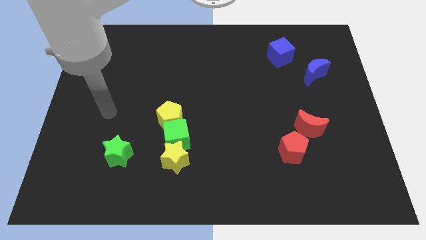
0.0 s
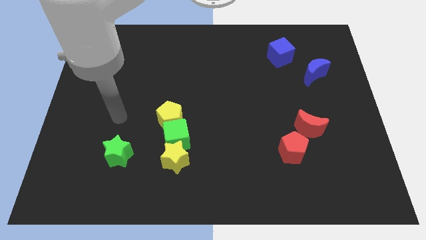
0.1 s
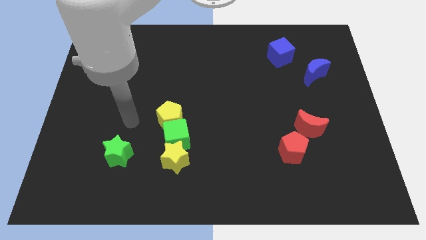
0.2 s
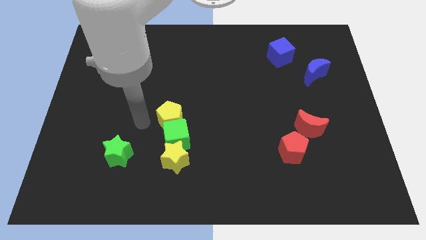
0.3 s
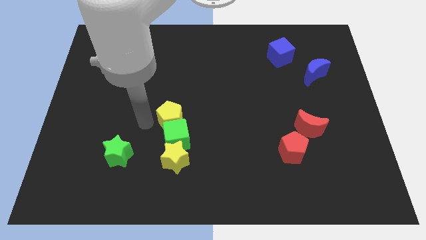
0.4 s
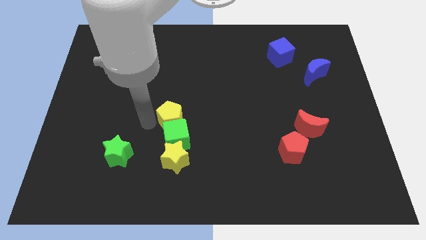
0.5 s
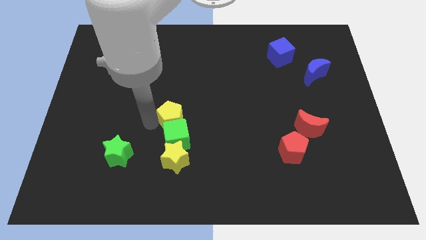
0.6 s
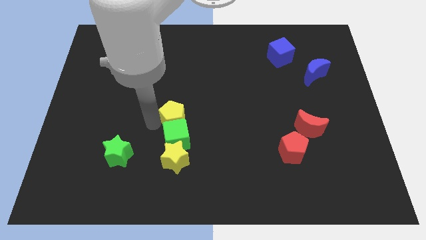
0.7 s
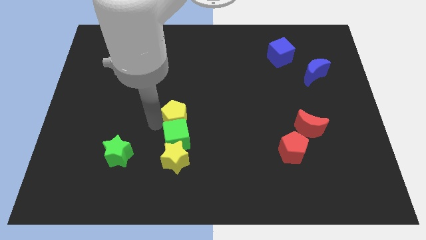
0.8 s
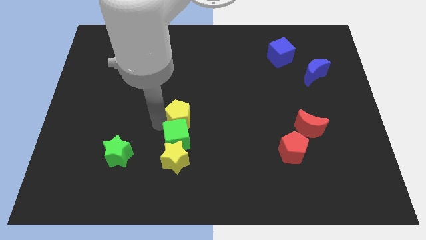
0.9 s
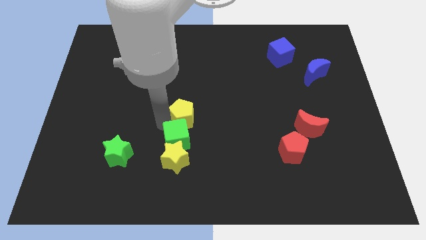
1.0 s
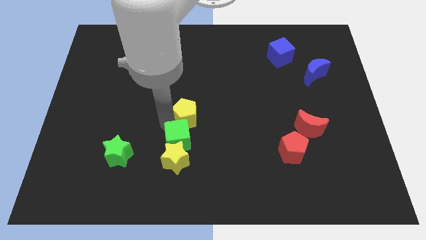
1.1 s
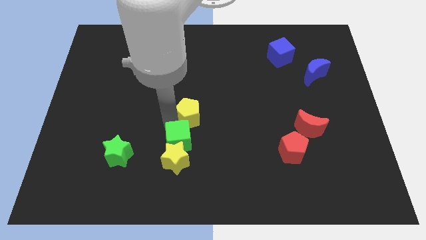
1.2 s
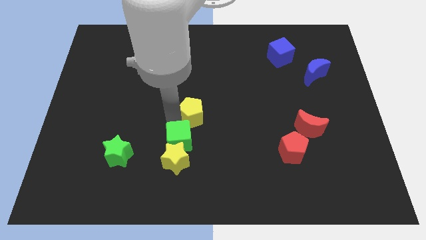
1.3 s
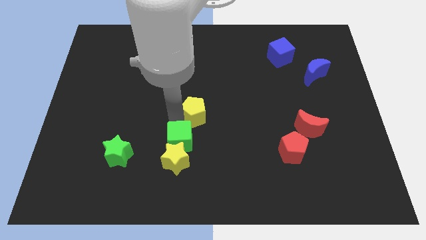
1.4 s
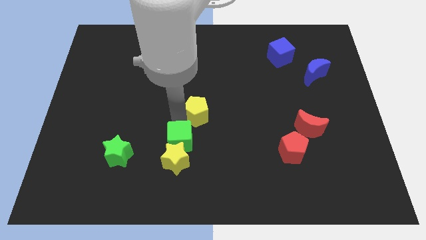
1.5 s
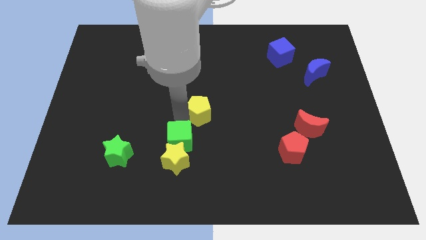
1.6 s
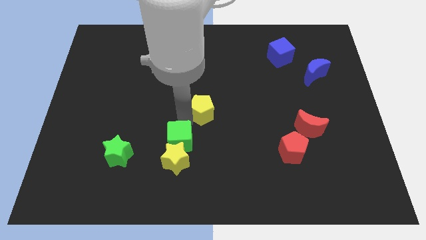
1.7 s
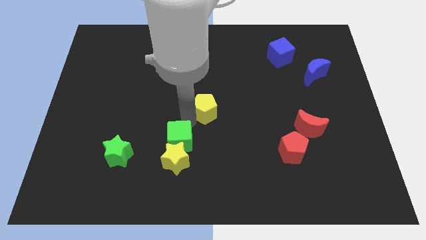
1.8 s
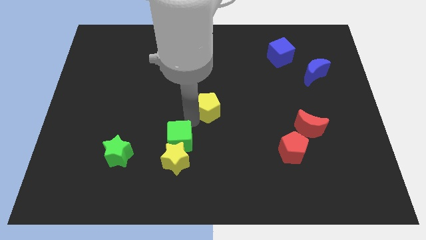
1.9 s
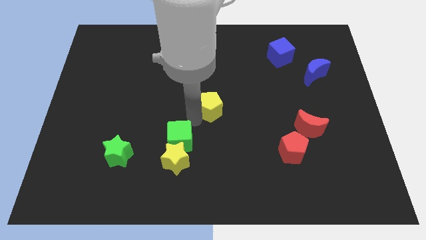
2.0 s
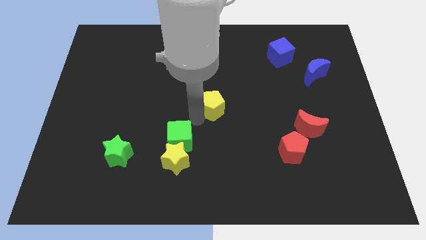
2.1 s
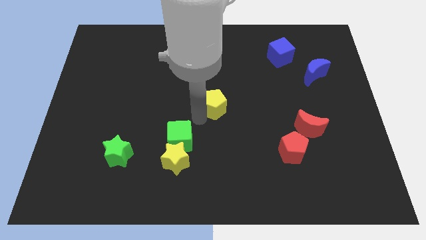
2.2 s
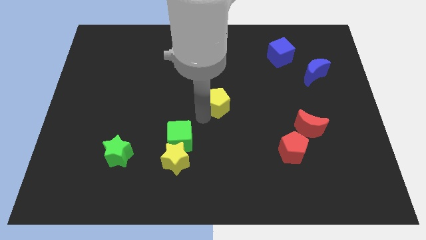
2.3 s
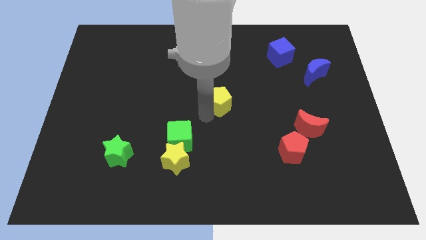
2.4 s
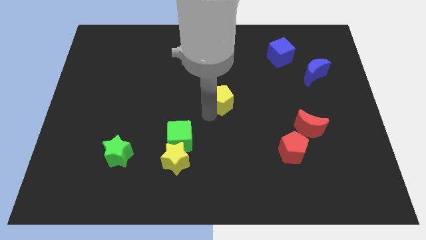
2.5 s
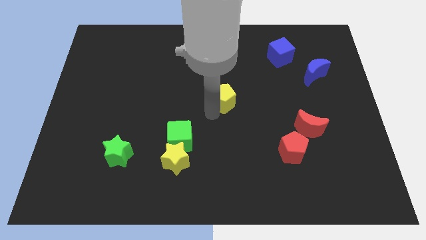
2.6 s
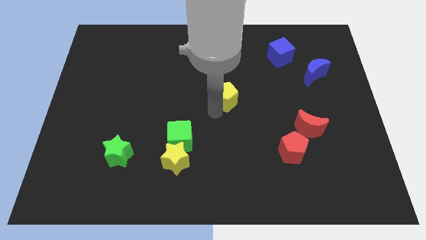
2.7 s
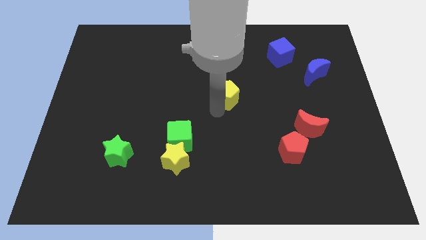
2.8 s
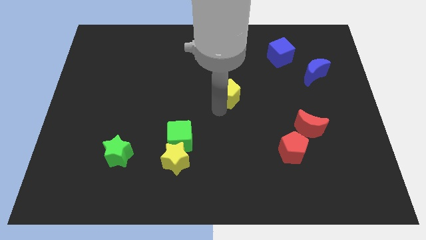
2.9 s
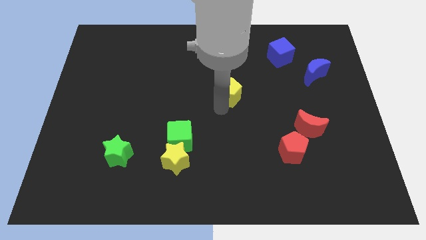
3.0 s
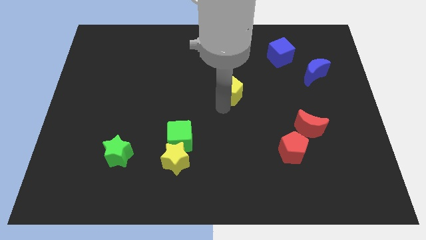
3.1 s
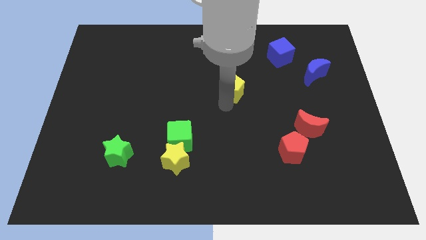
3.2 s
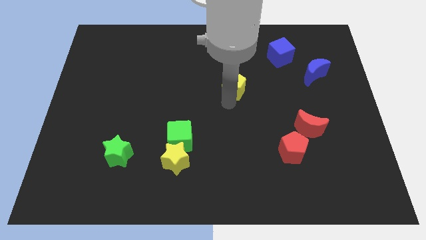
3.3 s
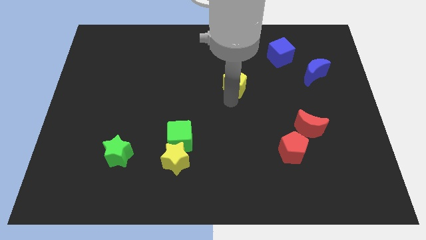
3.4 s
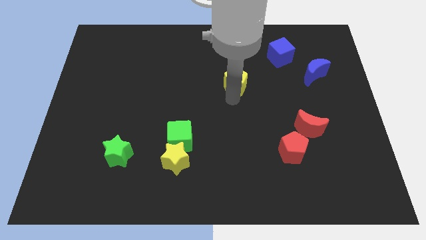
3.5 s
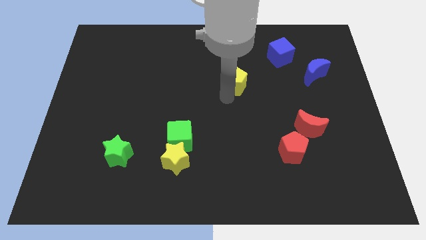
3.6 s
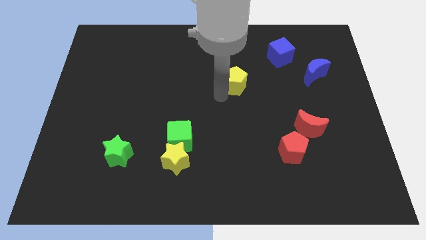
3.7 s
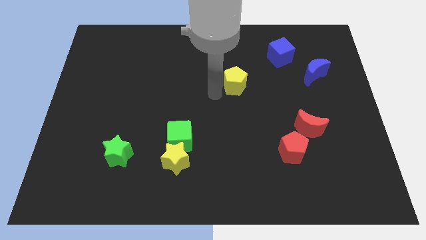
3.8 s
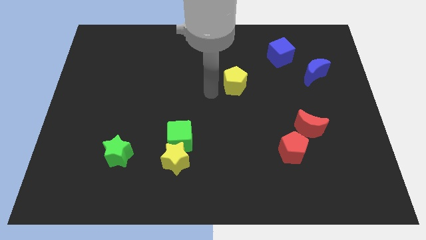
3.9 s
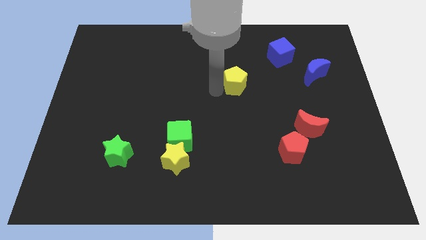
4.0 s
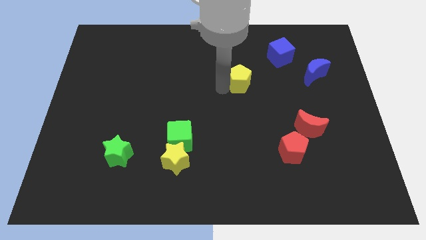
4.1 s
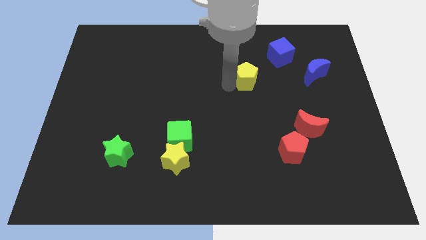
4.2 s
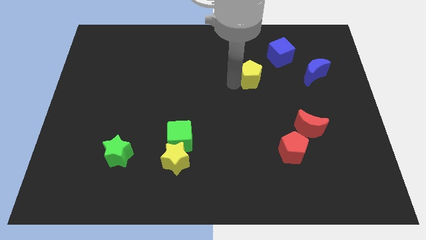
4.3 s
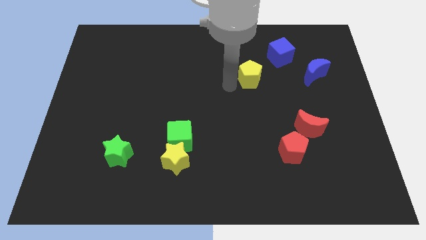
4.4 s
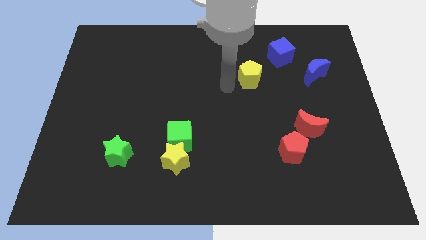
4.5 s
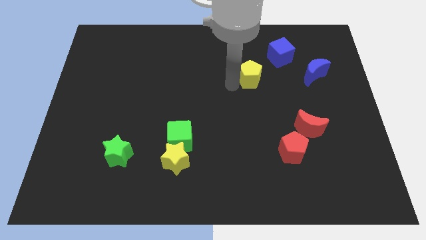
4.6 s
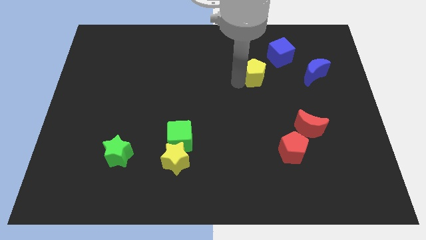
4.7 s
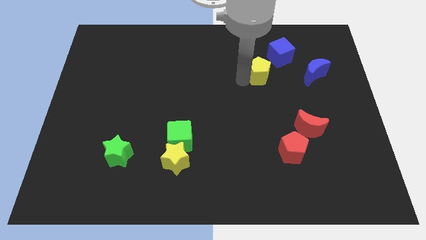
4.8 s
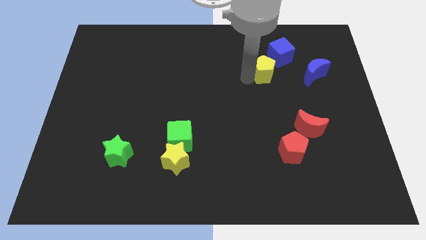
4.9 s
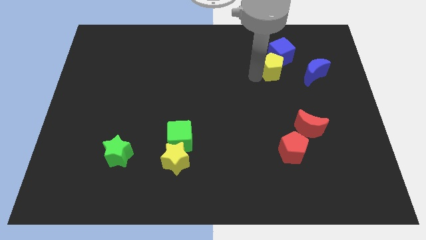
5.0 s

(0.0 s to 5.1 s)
push the yellow pentagon close to the blue cube

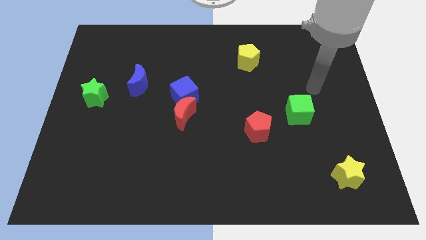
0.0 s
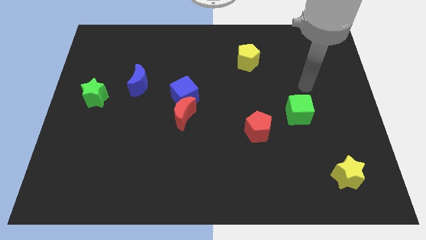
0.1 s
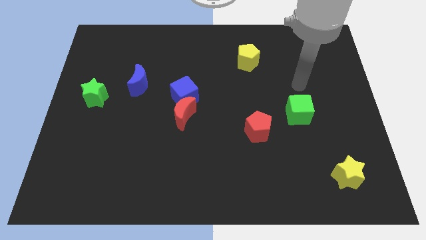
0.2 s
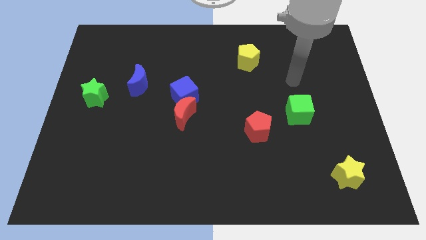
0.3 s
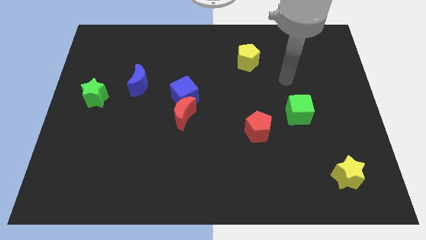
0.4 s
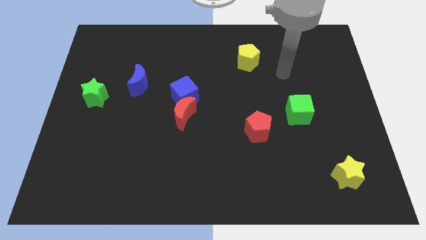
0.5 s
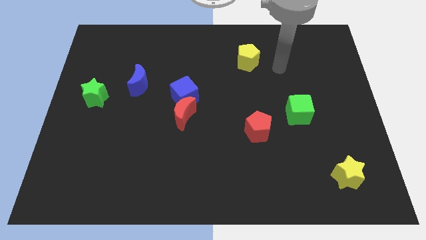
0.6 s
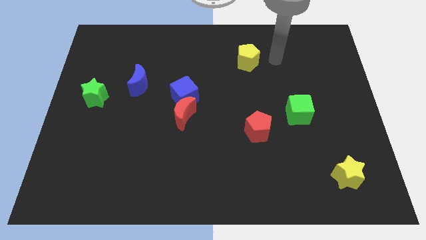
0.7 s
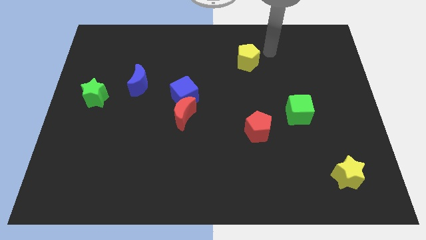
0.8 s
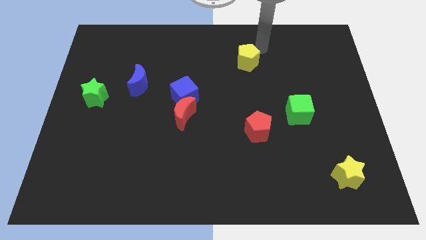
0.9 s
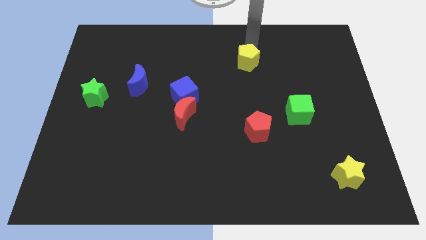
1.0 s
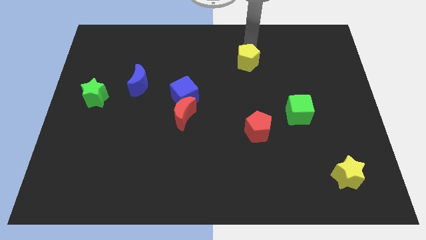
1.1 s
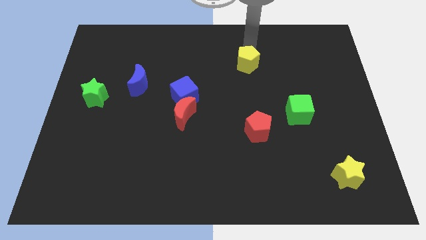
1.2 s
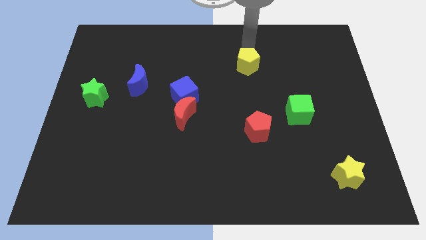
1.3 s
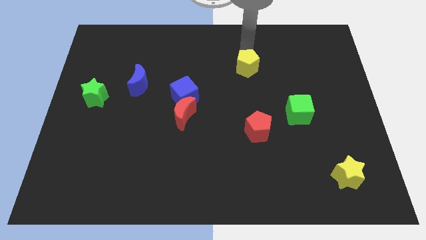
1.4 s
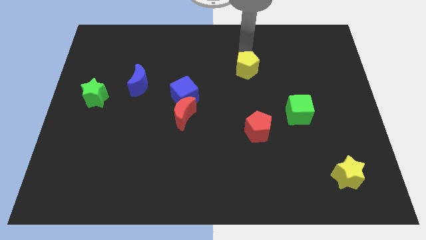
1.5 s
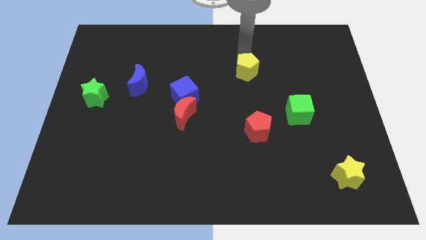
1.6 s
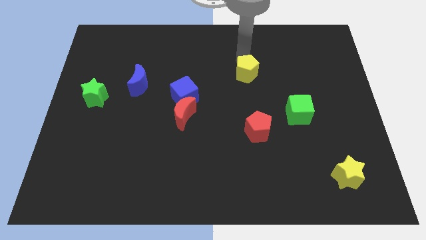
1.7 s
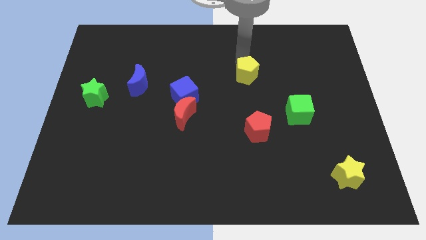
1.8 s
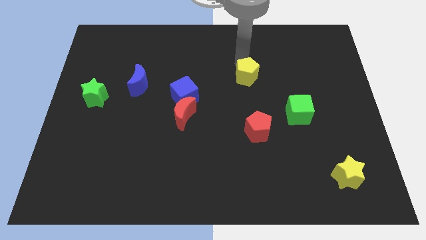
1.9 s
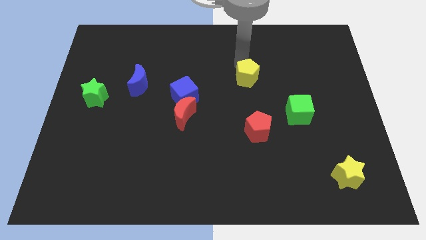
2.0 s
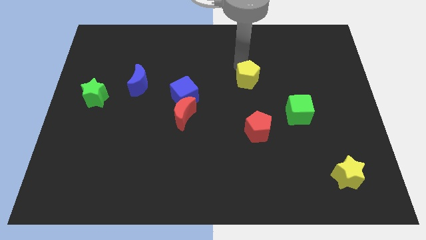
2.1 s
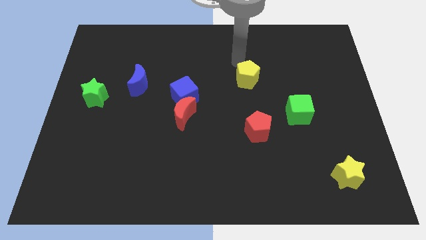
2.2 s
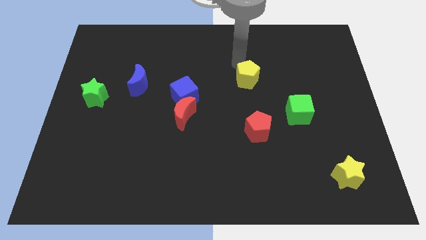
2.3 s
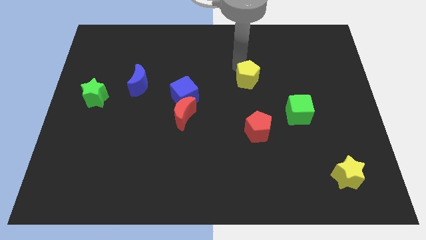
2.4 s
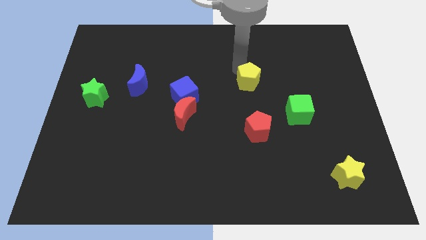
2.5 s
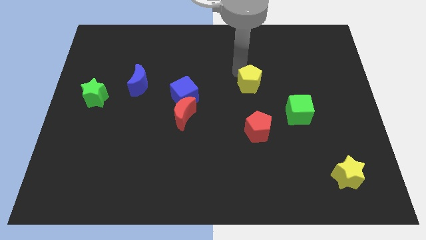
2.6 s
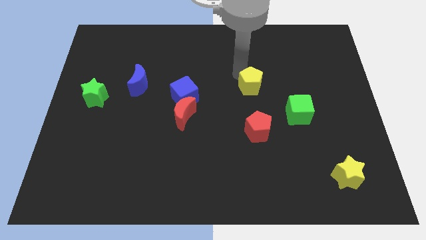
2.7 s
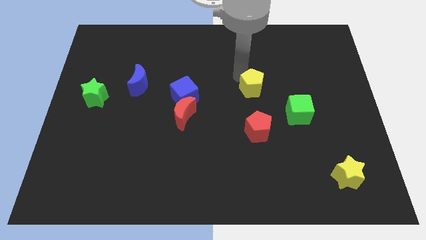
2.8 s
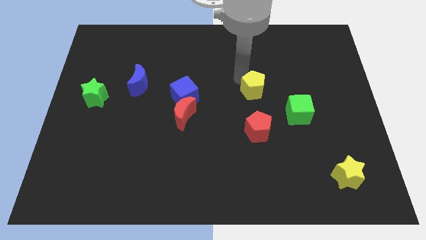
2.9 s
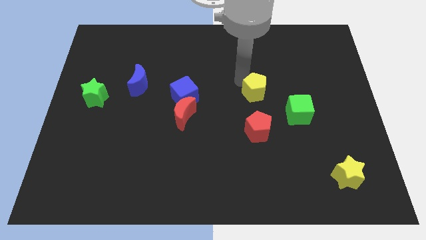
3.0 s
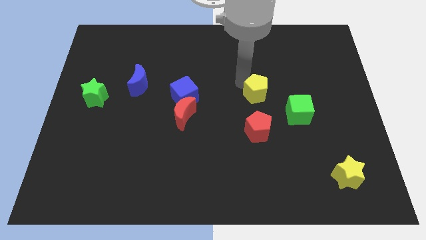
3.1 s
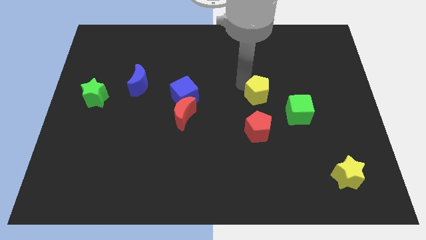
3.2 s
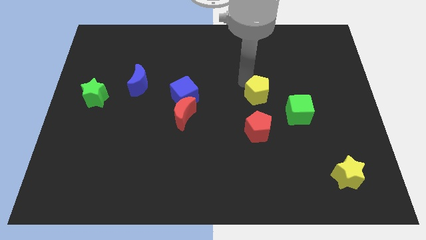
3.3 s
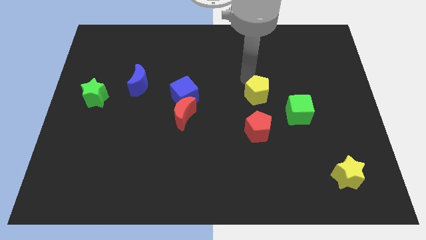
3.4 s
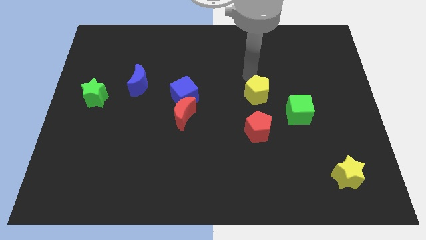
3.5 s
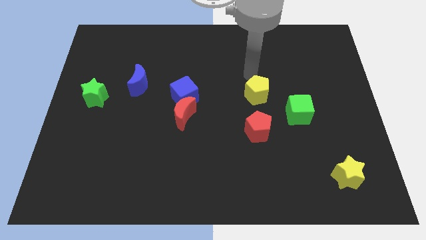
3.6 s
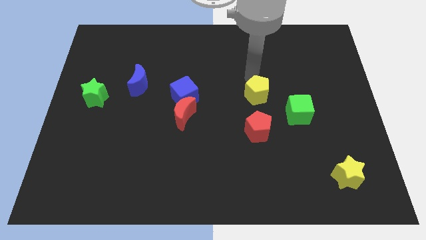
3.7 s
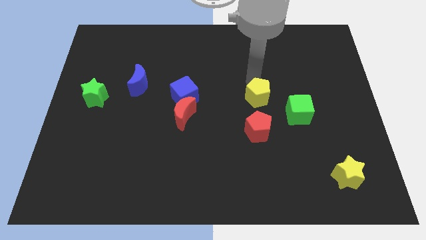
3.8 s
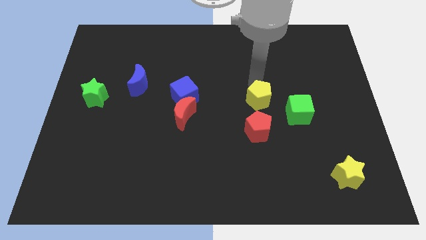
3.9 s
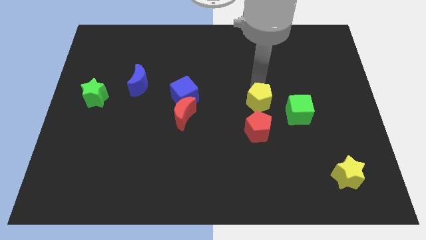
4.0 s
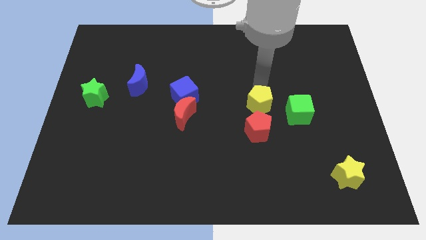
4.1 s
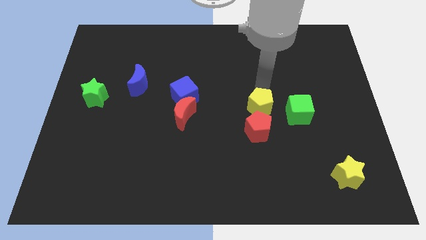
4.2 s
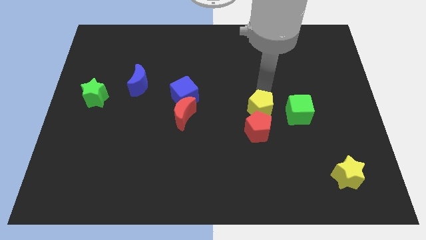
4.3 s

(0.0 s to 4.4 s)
slide the yellow pentagon to the red pentagon
